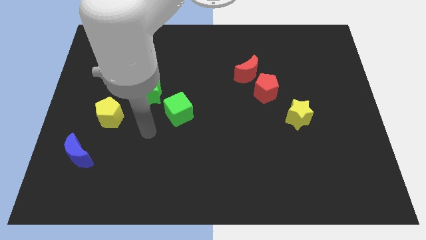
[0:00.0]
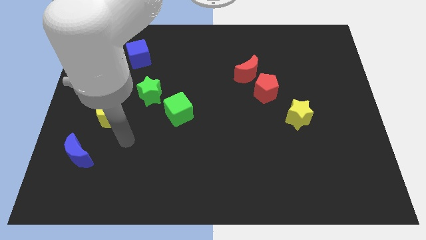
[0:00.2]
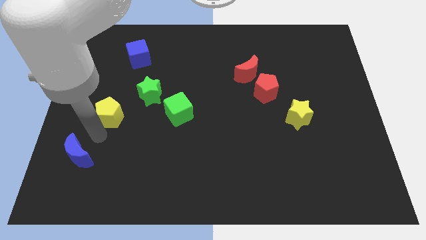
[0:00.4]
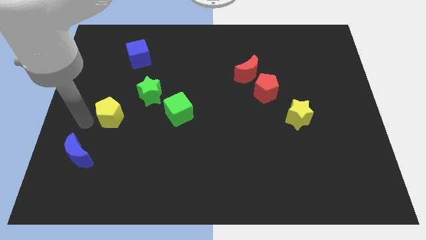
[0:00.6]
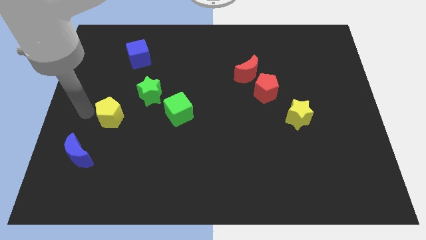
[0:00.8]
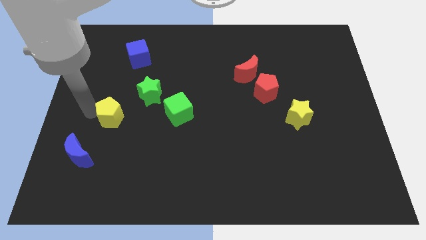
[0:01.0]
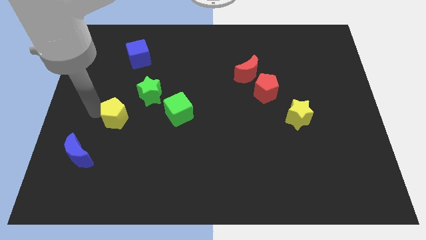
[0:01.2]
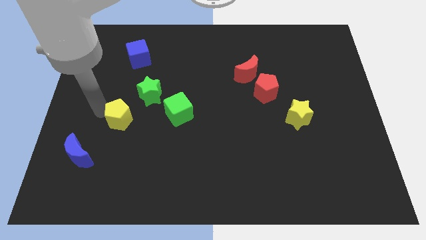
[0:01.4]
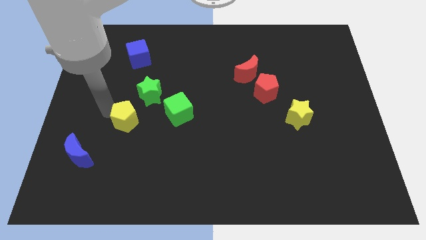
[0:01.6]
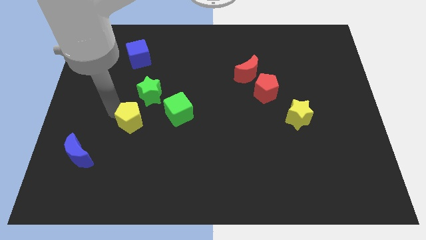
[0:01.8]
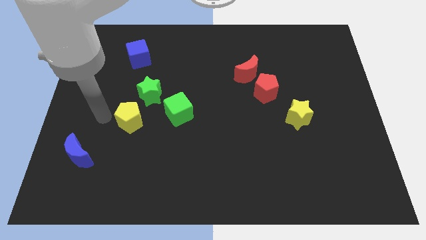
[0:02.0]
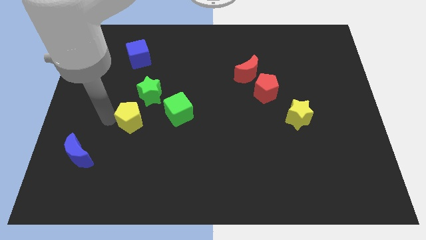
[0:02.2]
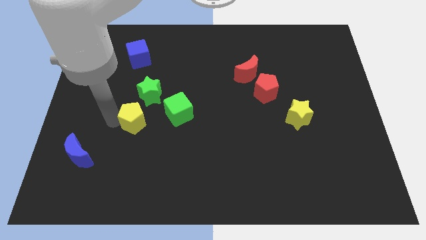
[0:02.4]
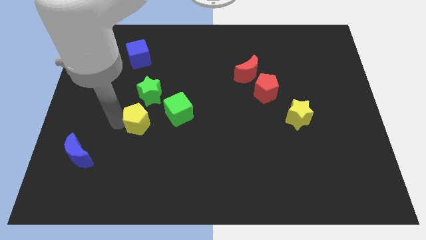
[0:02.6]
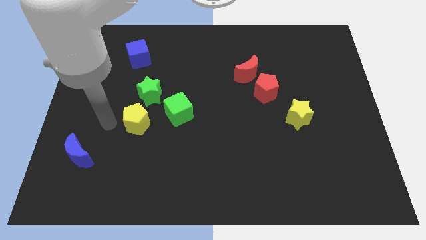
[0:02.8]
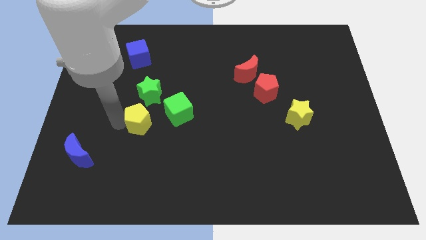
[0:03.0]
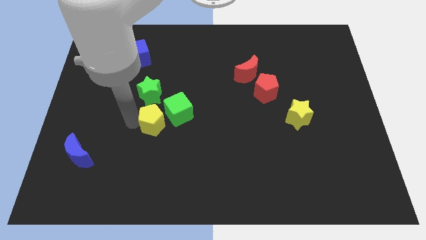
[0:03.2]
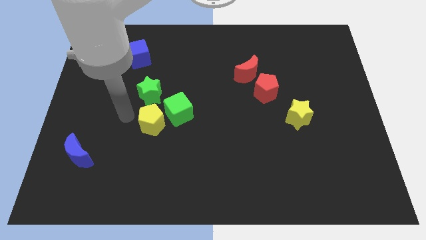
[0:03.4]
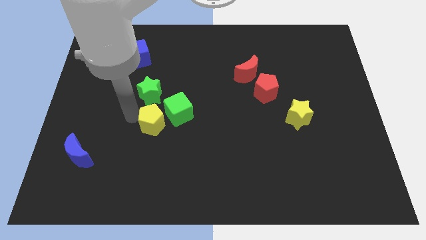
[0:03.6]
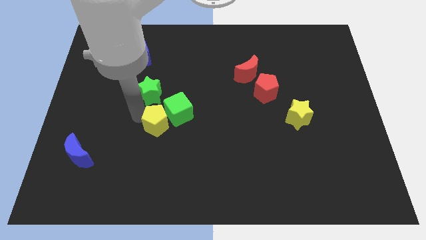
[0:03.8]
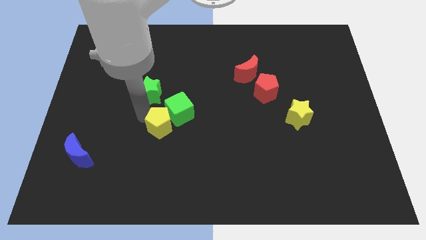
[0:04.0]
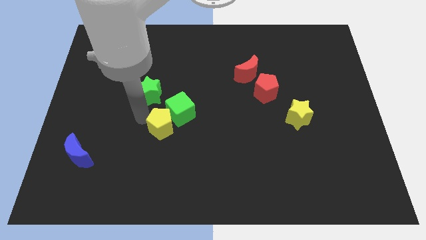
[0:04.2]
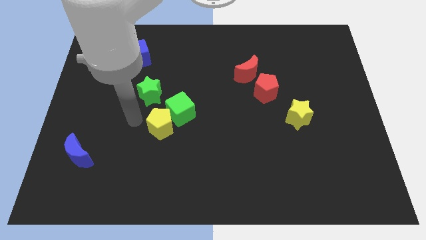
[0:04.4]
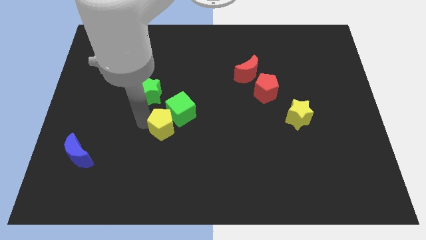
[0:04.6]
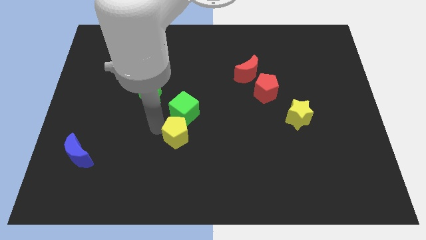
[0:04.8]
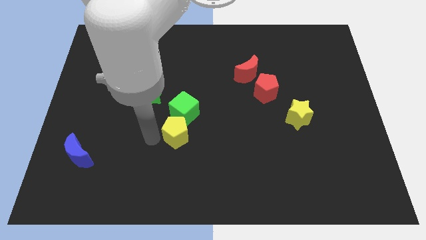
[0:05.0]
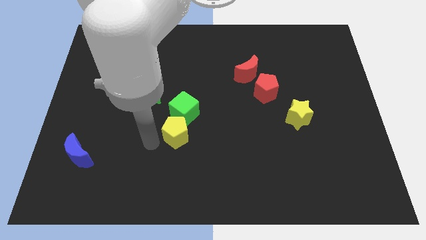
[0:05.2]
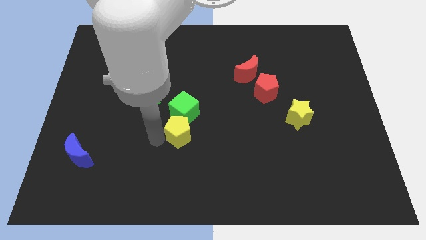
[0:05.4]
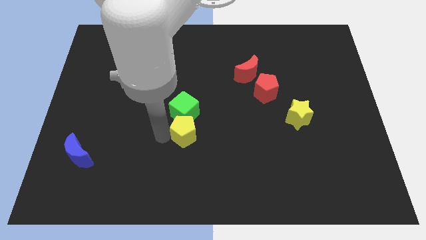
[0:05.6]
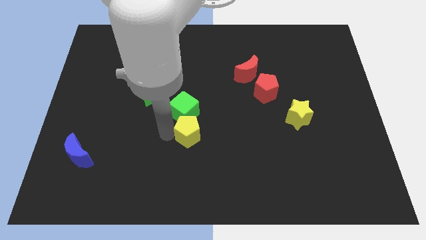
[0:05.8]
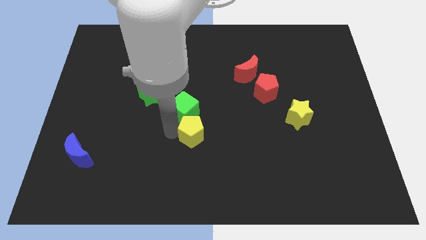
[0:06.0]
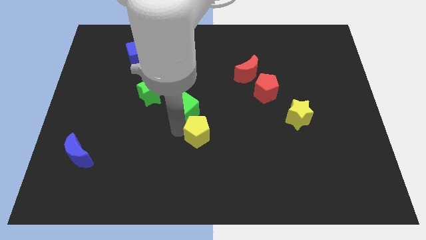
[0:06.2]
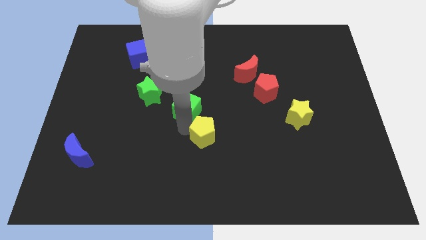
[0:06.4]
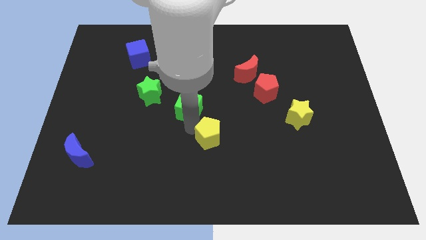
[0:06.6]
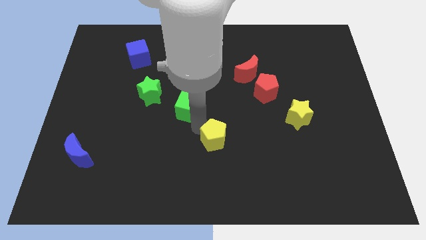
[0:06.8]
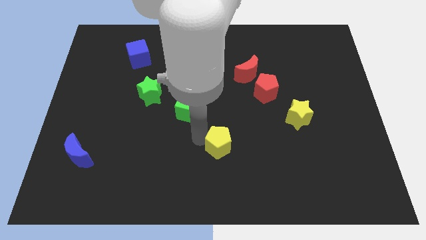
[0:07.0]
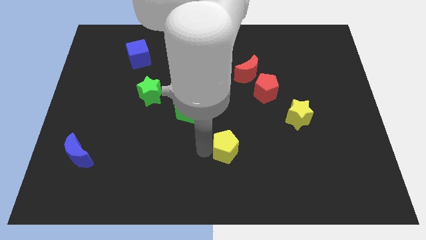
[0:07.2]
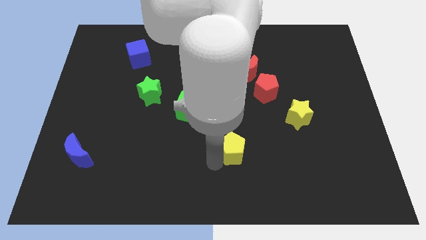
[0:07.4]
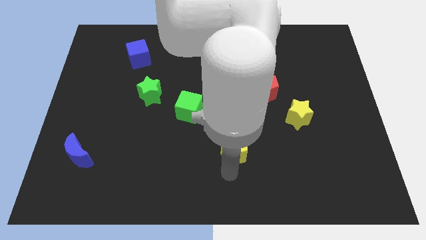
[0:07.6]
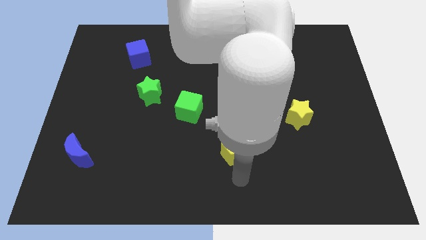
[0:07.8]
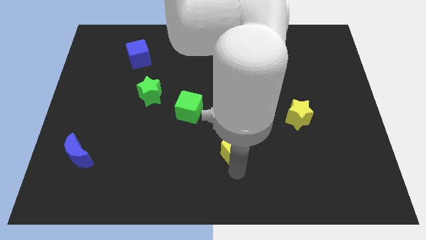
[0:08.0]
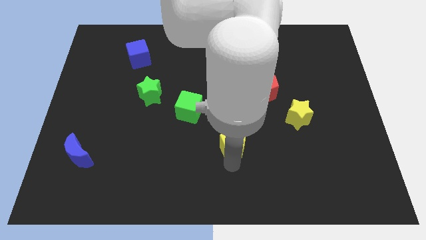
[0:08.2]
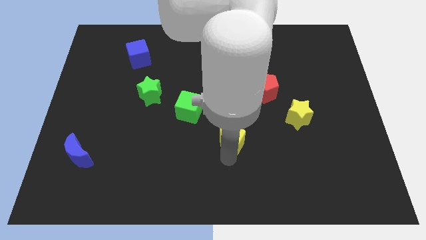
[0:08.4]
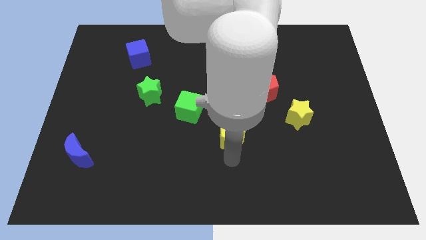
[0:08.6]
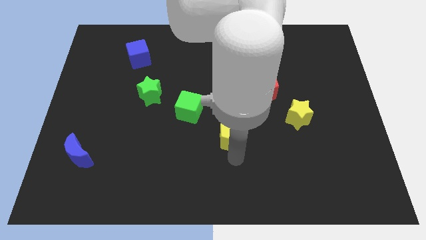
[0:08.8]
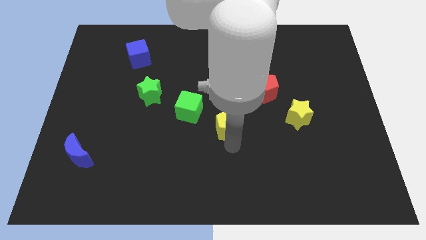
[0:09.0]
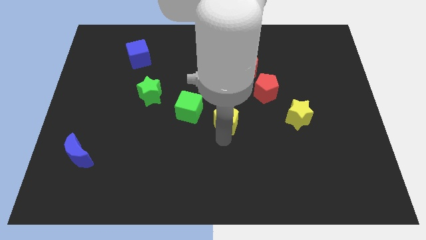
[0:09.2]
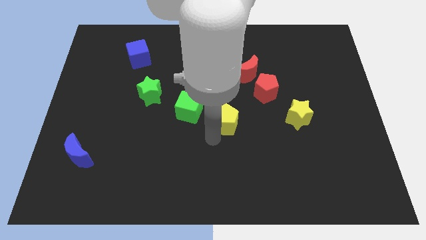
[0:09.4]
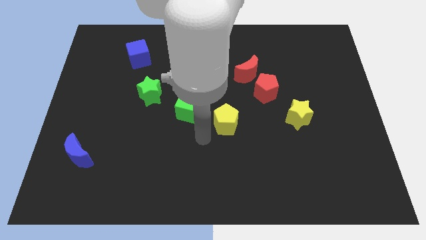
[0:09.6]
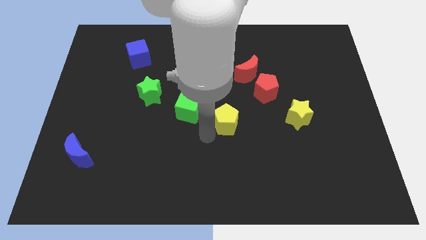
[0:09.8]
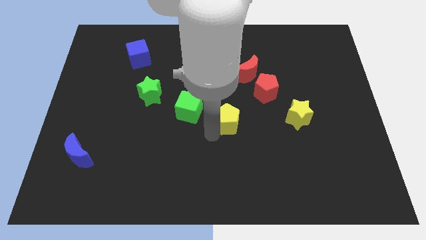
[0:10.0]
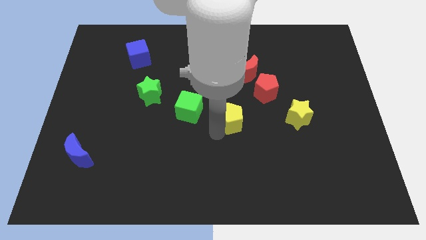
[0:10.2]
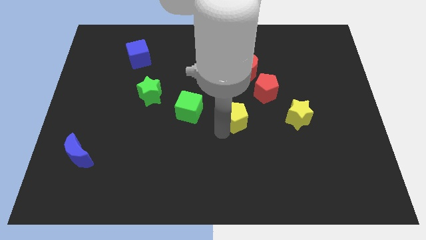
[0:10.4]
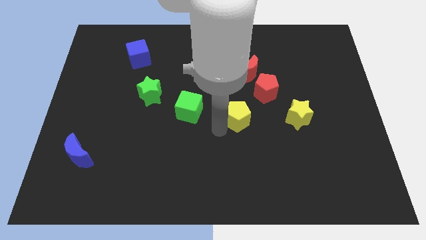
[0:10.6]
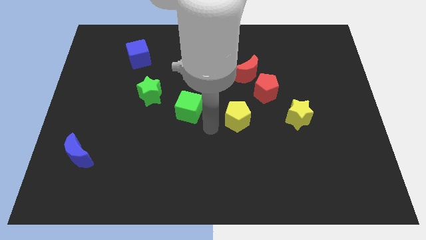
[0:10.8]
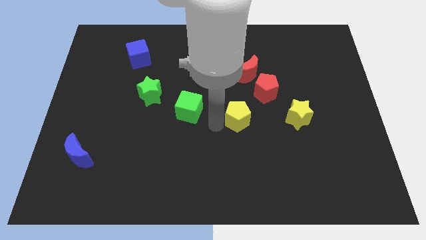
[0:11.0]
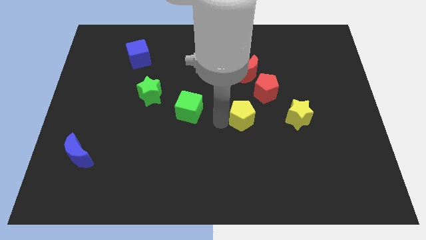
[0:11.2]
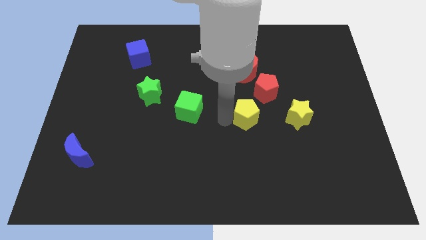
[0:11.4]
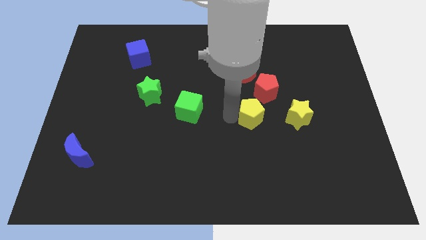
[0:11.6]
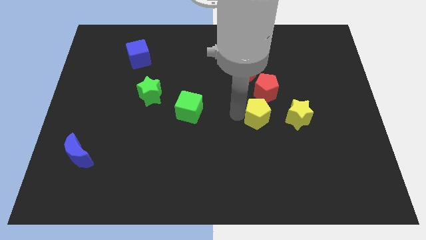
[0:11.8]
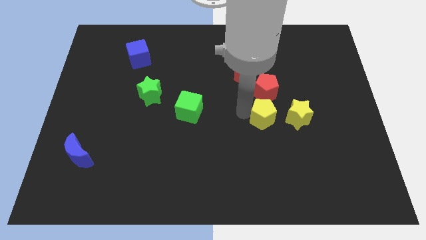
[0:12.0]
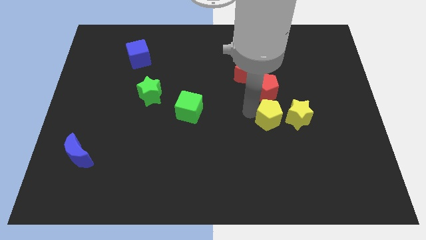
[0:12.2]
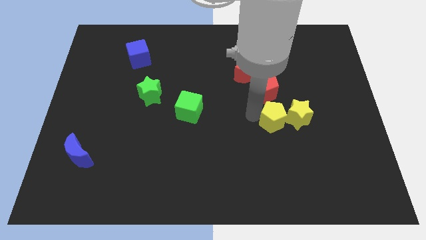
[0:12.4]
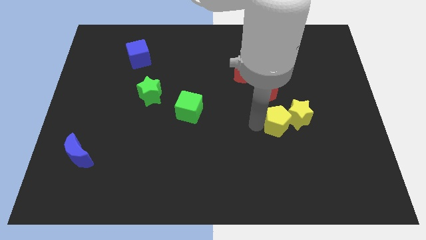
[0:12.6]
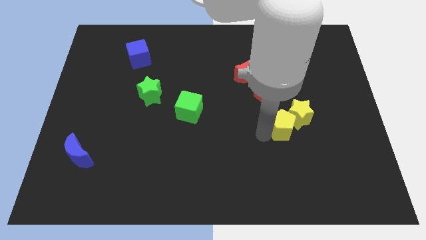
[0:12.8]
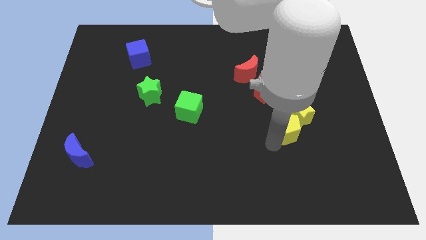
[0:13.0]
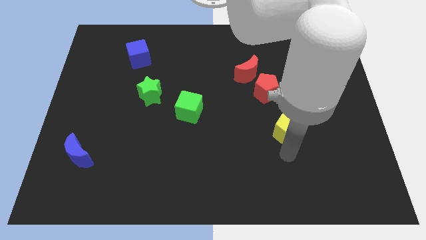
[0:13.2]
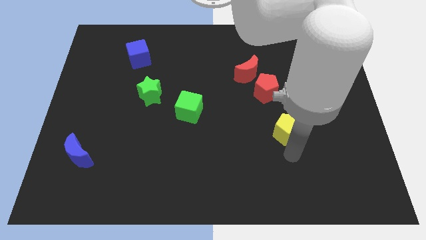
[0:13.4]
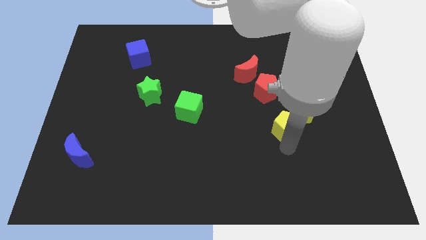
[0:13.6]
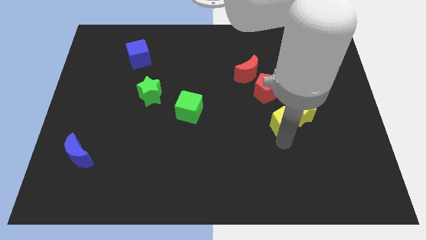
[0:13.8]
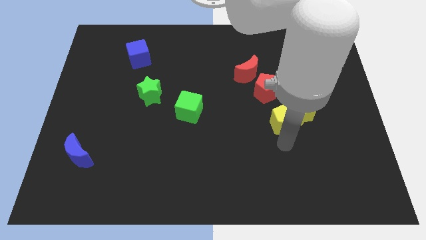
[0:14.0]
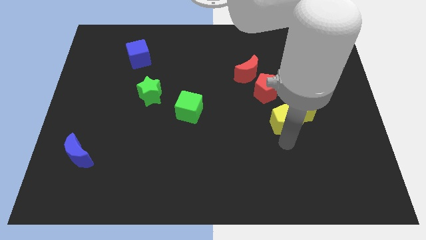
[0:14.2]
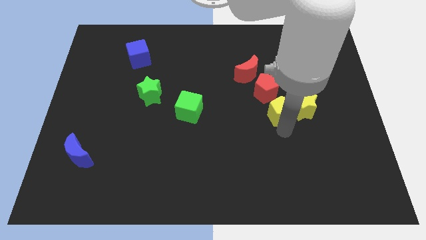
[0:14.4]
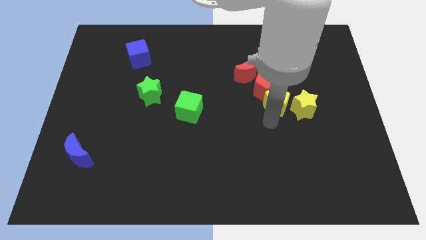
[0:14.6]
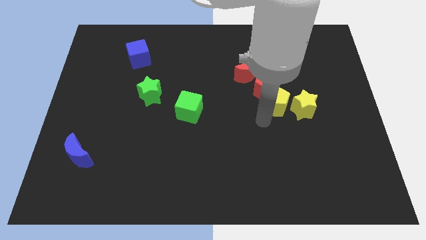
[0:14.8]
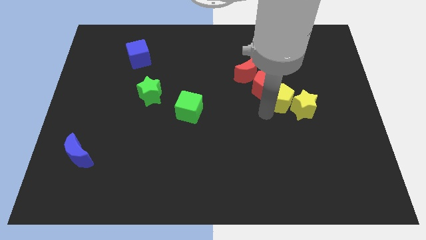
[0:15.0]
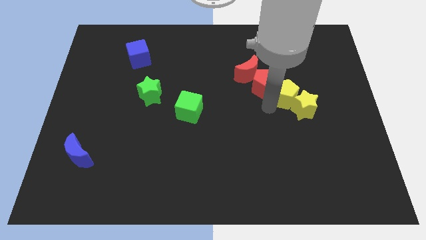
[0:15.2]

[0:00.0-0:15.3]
put the yellow pentagon to the top side of the yellow star
